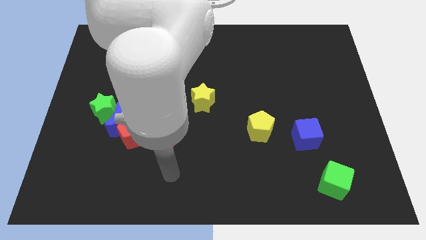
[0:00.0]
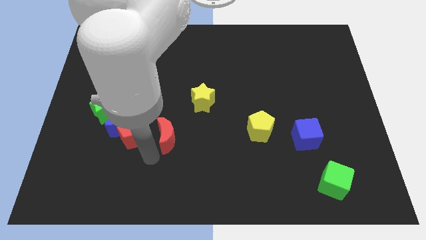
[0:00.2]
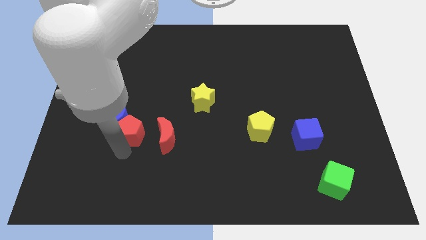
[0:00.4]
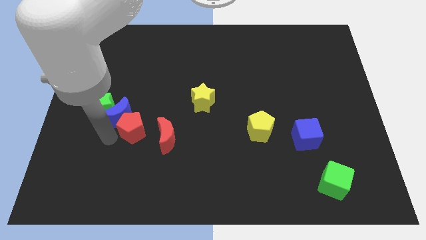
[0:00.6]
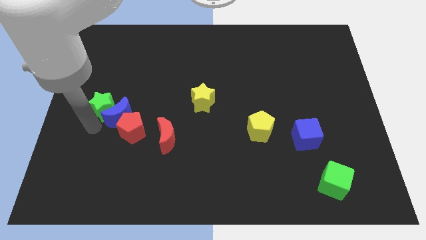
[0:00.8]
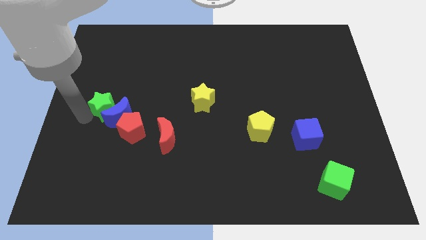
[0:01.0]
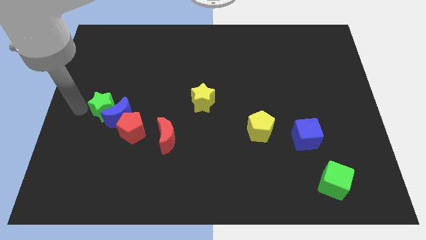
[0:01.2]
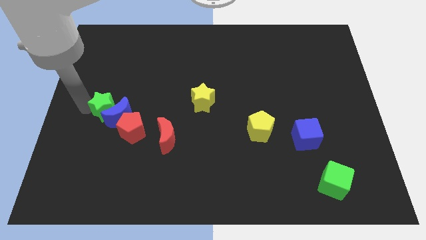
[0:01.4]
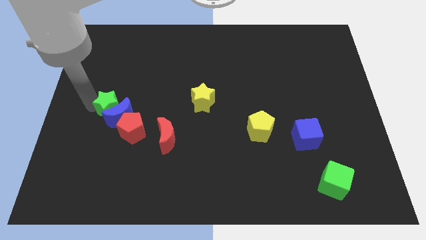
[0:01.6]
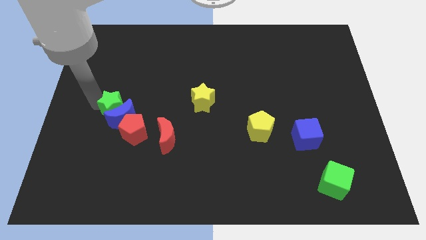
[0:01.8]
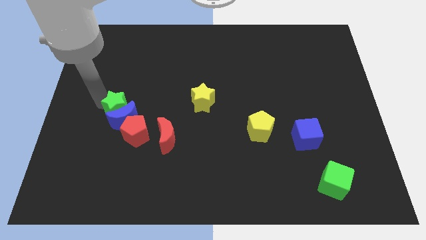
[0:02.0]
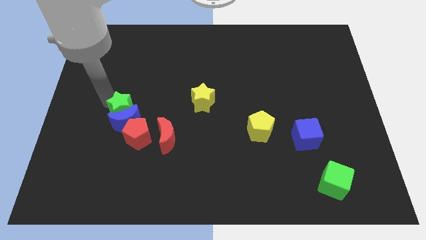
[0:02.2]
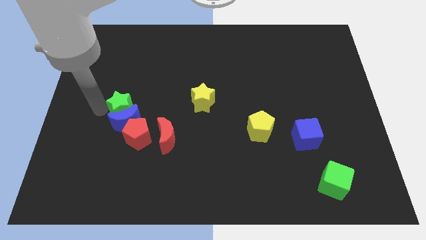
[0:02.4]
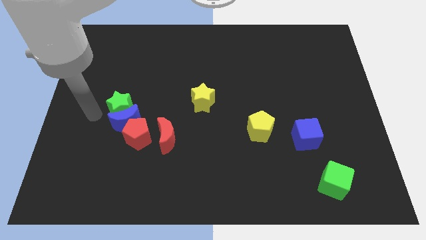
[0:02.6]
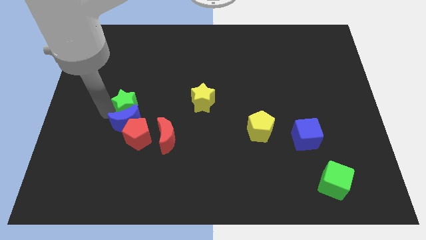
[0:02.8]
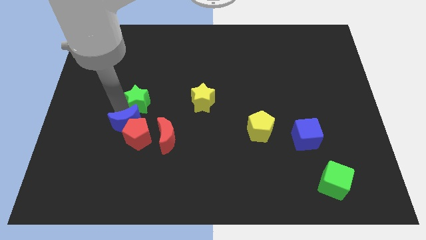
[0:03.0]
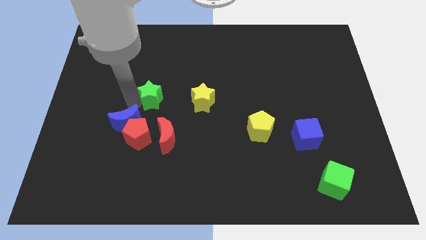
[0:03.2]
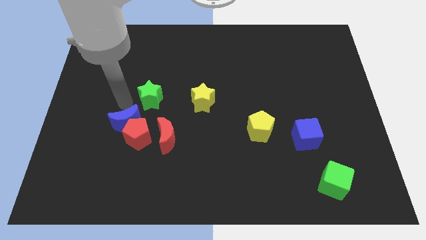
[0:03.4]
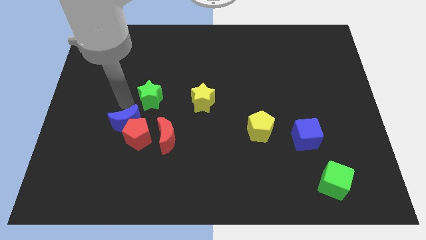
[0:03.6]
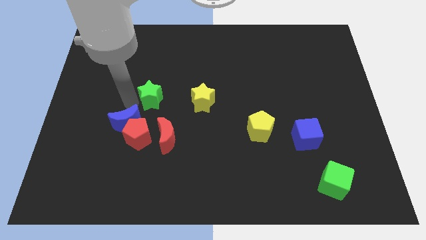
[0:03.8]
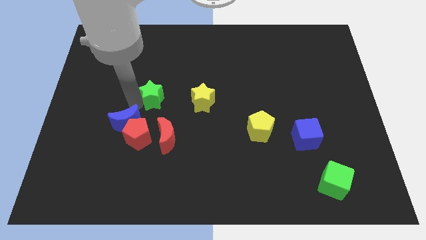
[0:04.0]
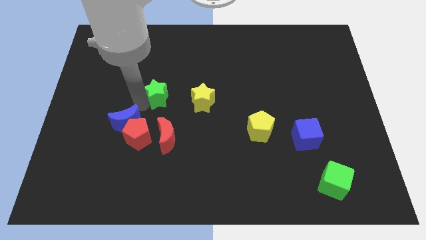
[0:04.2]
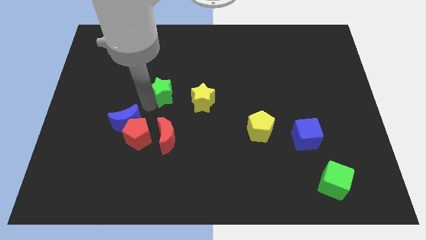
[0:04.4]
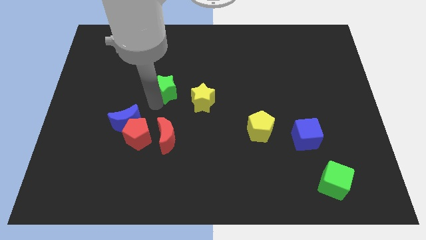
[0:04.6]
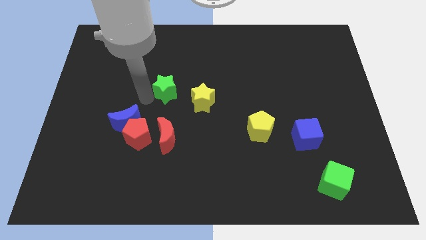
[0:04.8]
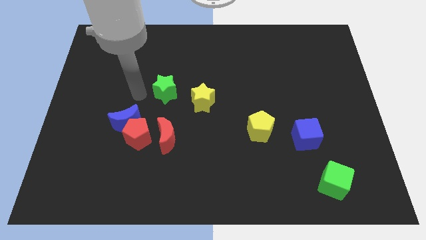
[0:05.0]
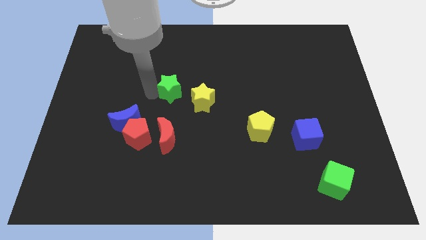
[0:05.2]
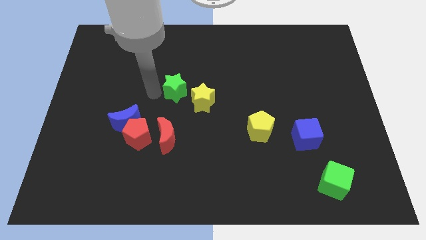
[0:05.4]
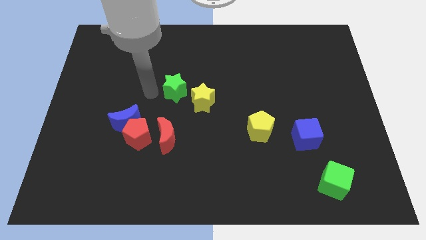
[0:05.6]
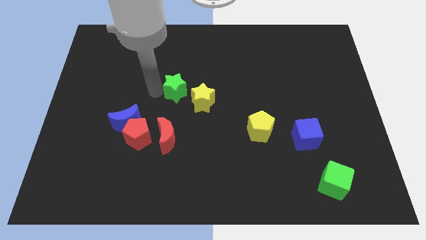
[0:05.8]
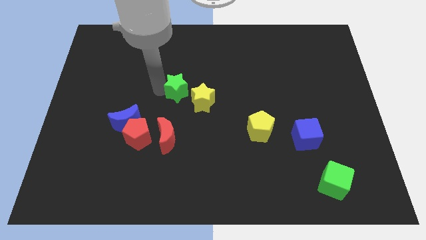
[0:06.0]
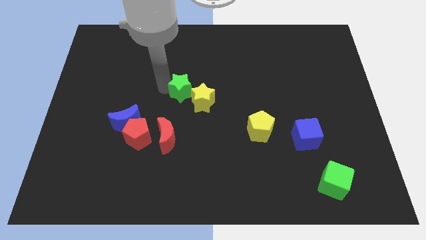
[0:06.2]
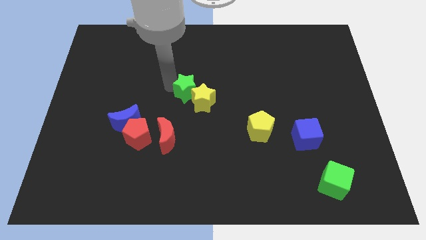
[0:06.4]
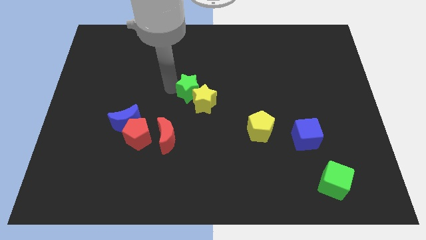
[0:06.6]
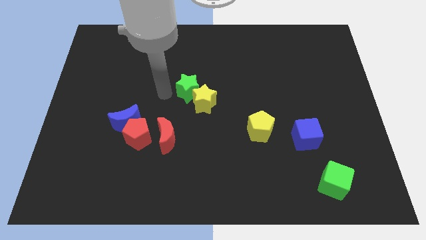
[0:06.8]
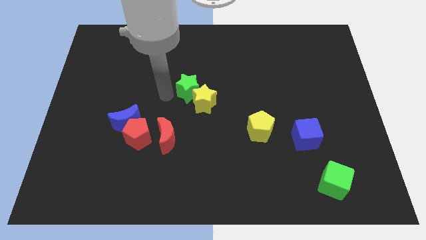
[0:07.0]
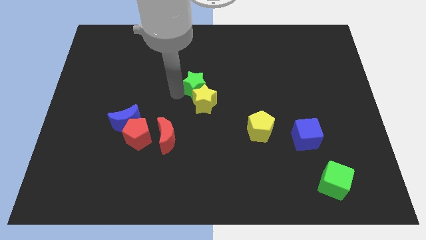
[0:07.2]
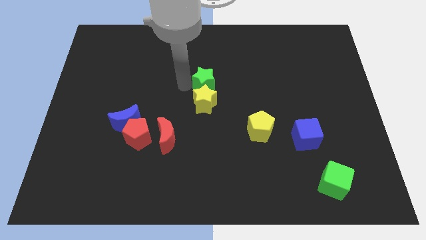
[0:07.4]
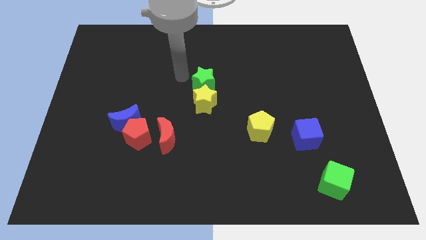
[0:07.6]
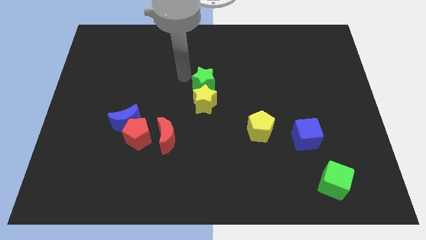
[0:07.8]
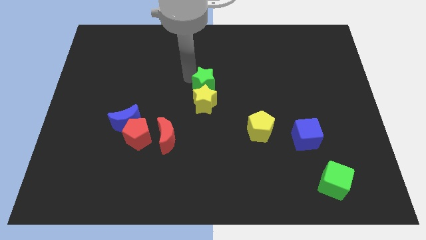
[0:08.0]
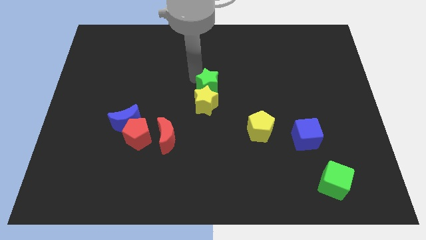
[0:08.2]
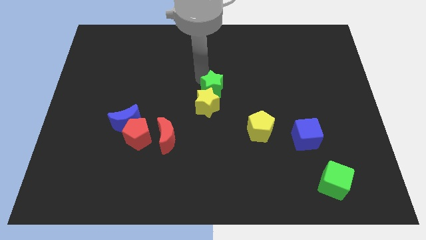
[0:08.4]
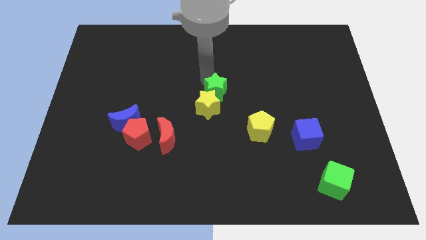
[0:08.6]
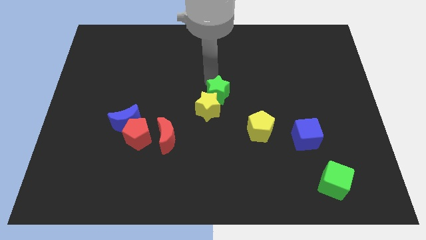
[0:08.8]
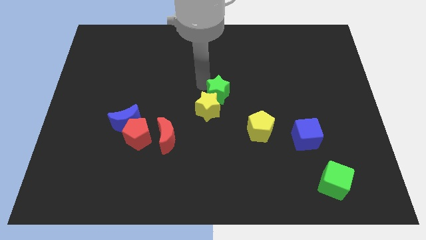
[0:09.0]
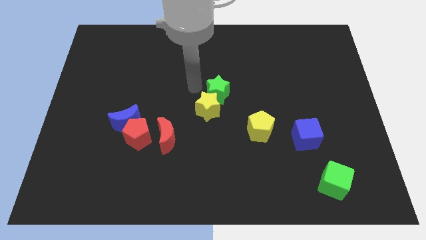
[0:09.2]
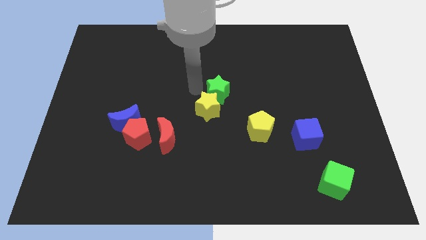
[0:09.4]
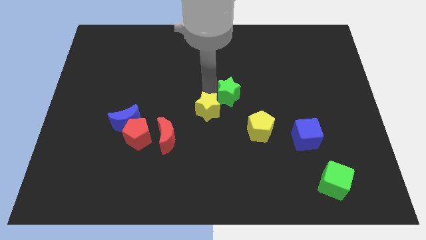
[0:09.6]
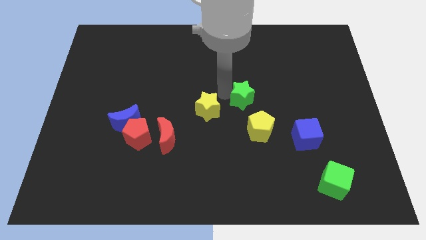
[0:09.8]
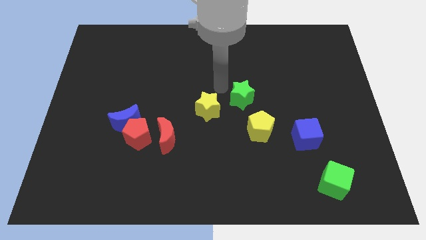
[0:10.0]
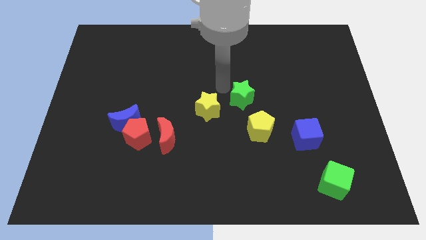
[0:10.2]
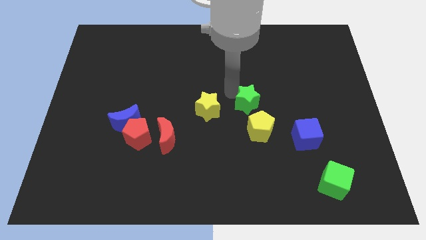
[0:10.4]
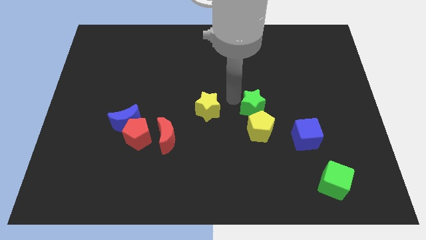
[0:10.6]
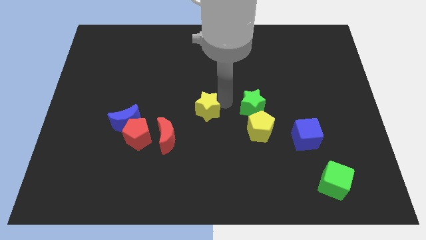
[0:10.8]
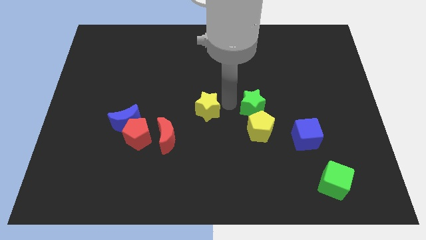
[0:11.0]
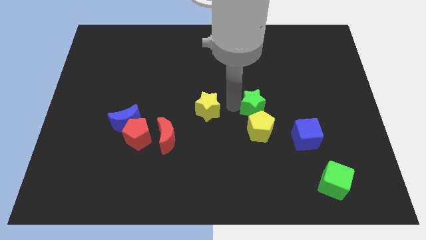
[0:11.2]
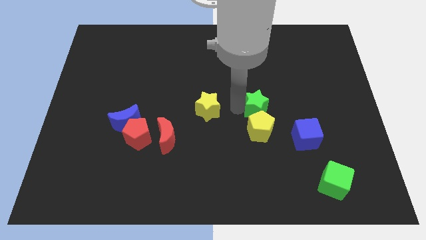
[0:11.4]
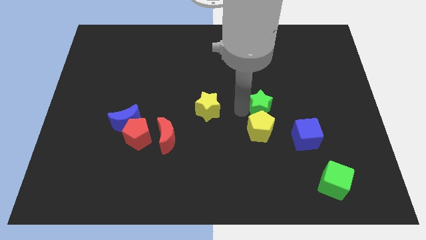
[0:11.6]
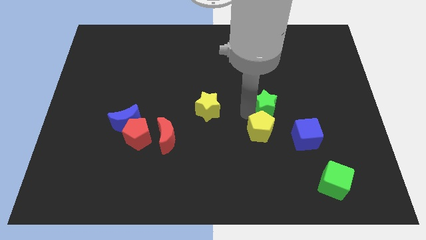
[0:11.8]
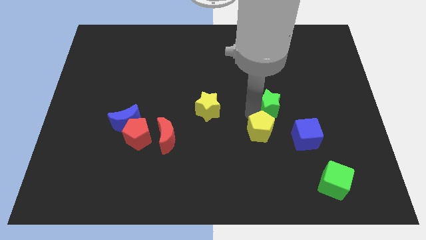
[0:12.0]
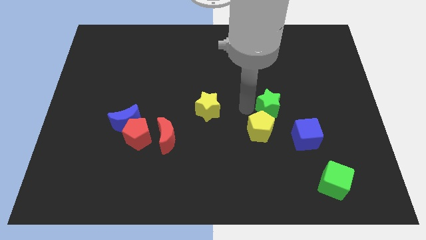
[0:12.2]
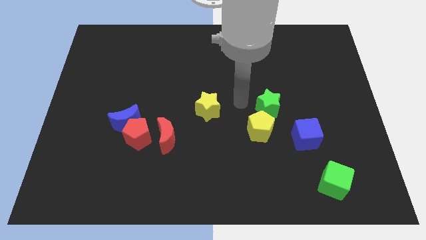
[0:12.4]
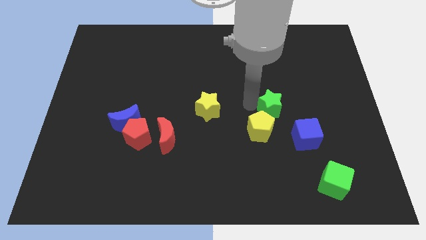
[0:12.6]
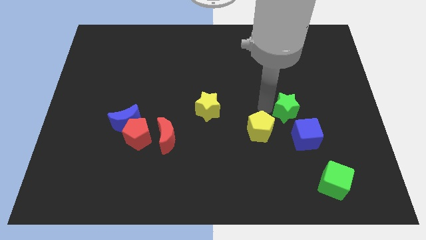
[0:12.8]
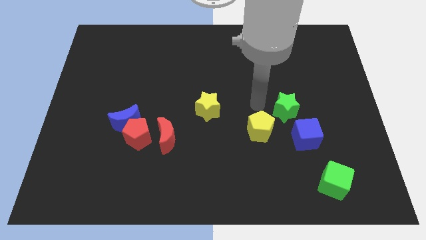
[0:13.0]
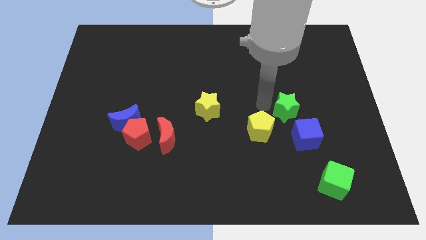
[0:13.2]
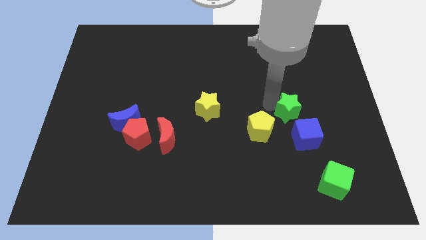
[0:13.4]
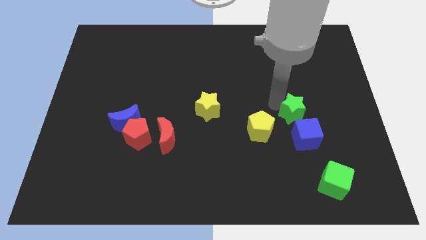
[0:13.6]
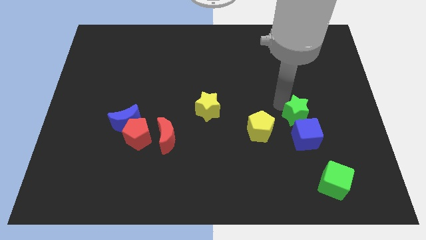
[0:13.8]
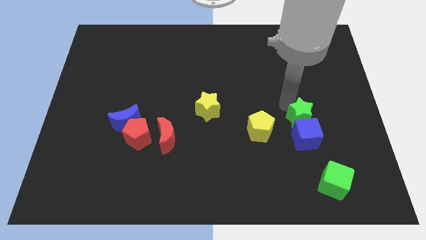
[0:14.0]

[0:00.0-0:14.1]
push the green star to the top right of the blue cube

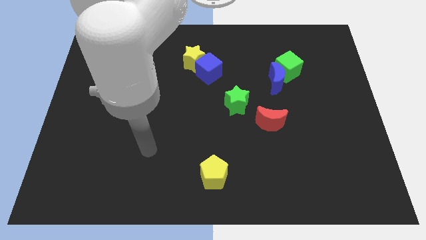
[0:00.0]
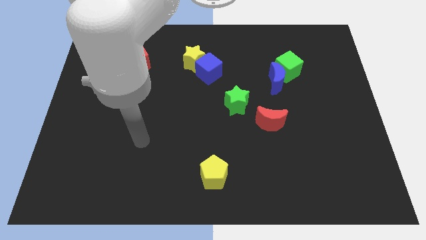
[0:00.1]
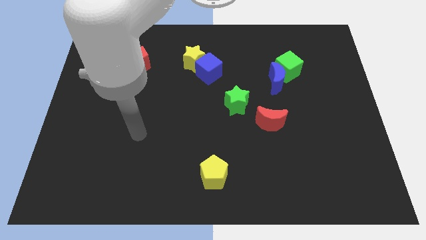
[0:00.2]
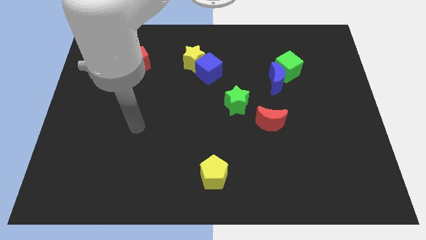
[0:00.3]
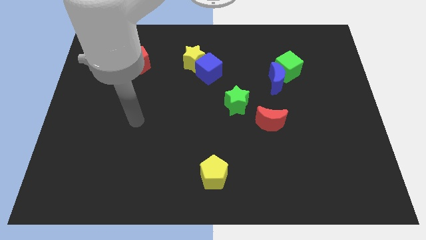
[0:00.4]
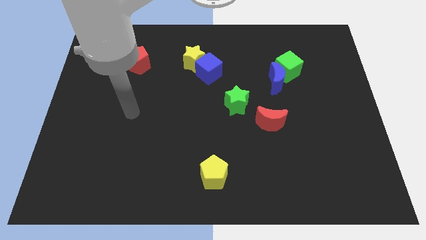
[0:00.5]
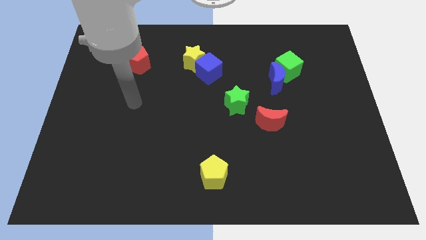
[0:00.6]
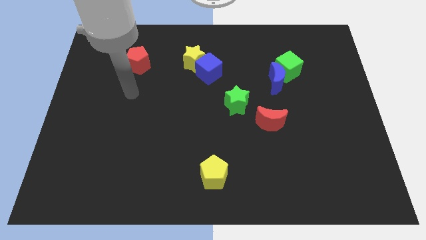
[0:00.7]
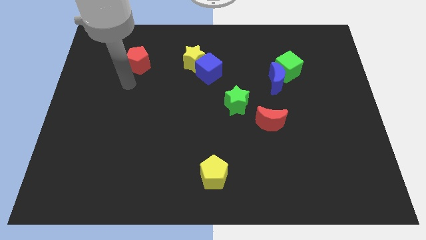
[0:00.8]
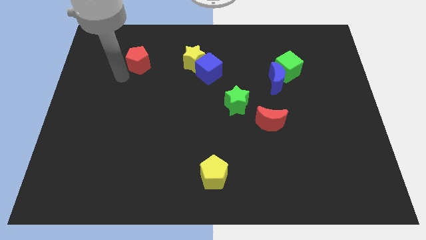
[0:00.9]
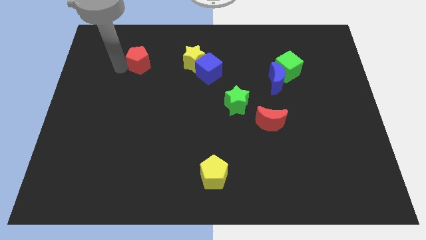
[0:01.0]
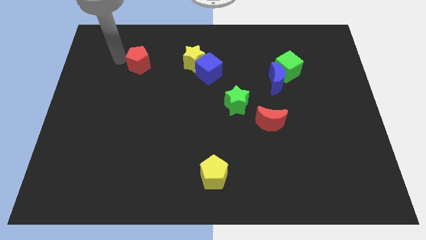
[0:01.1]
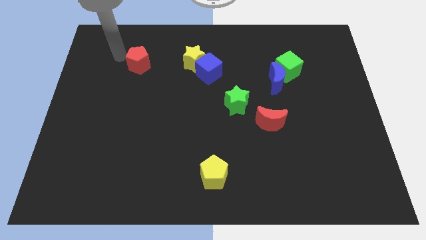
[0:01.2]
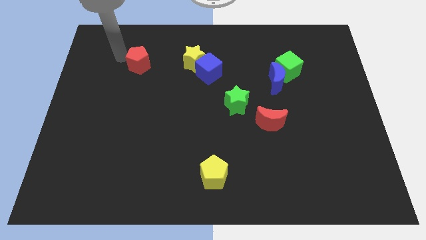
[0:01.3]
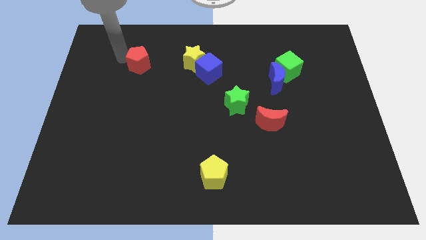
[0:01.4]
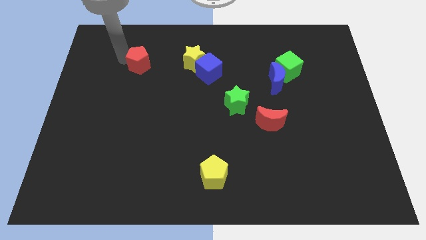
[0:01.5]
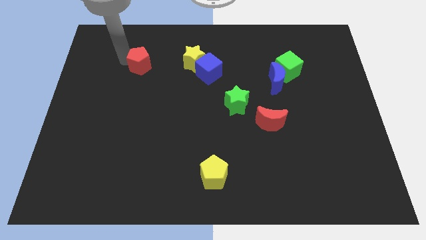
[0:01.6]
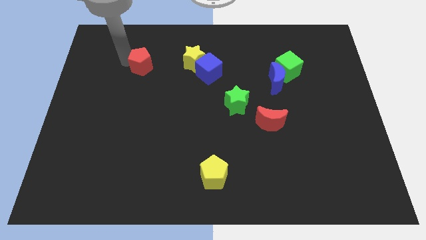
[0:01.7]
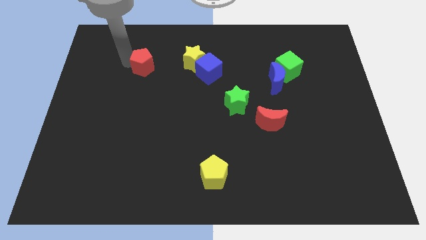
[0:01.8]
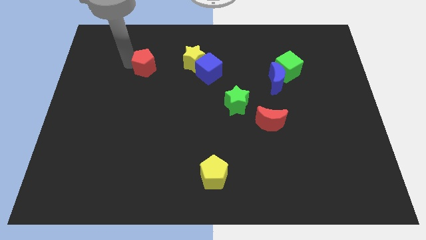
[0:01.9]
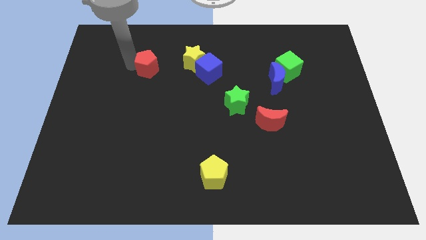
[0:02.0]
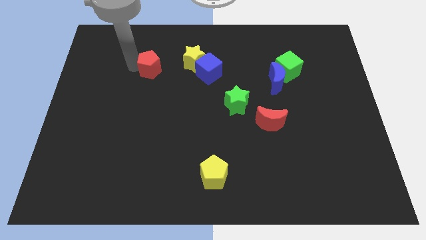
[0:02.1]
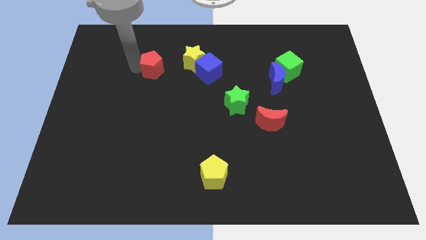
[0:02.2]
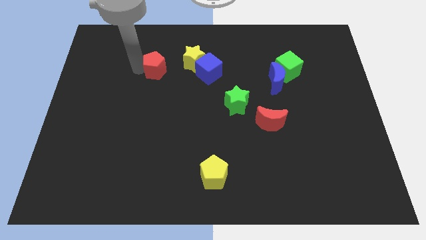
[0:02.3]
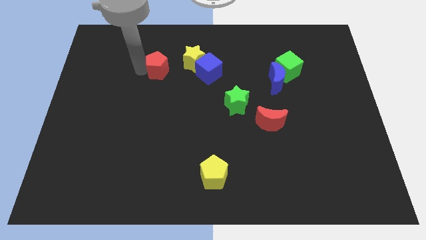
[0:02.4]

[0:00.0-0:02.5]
slide the red pentagon to the bottom left side of the yellow star
